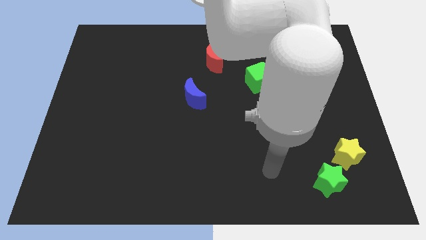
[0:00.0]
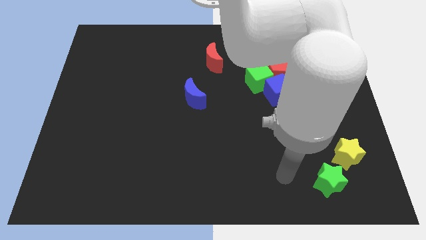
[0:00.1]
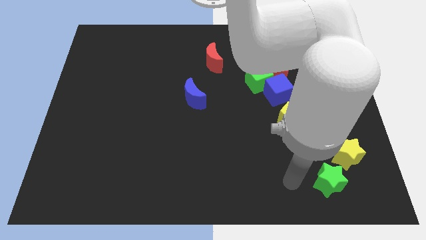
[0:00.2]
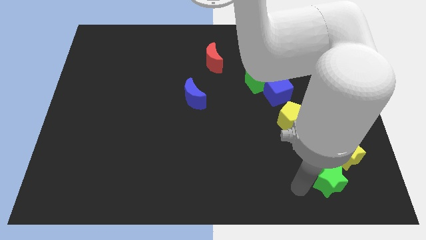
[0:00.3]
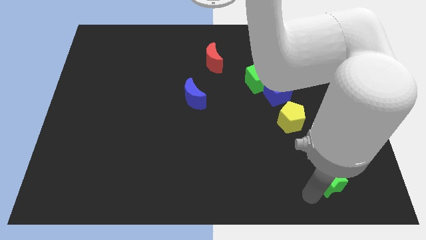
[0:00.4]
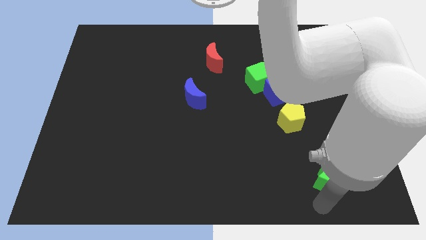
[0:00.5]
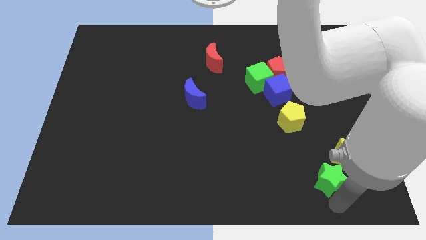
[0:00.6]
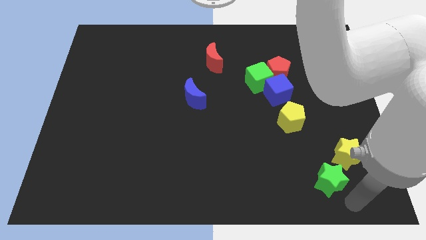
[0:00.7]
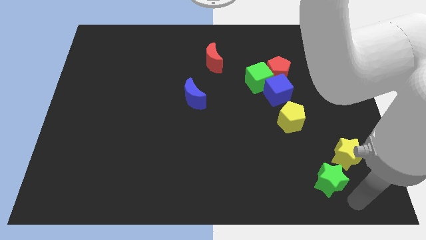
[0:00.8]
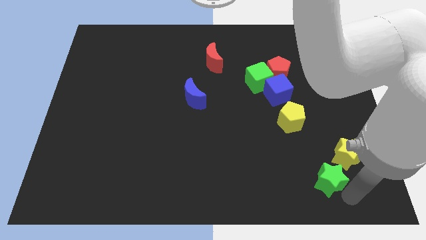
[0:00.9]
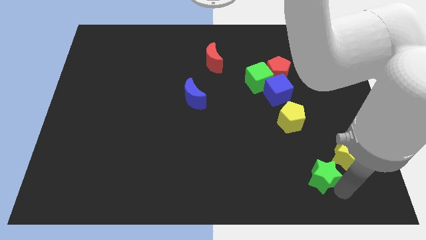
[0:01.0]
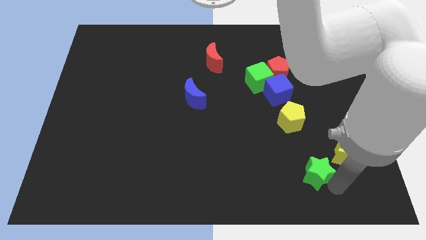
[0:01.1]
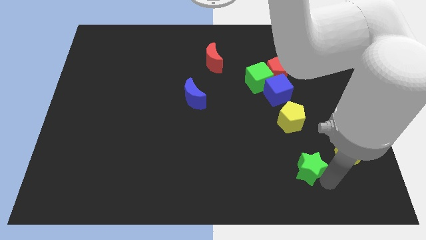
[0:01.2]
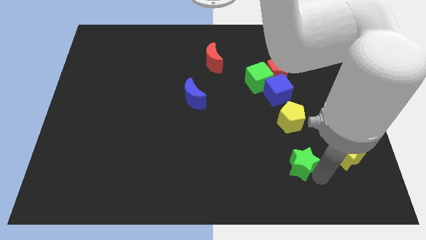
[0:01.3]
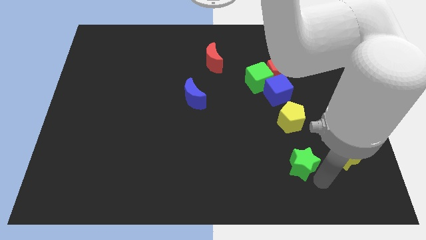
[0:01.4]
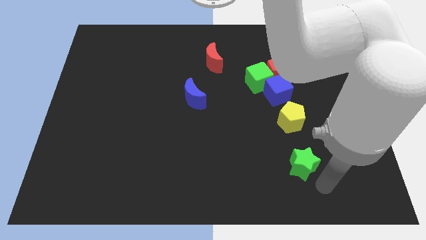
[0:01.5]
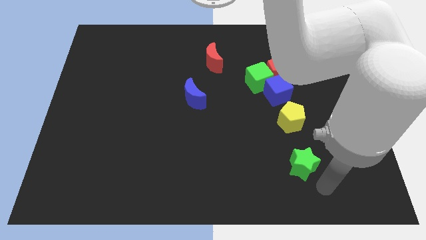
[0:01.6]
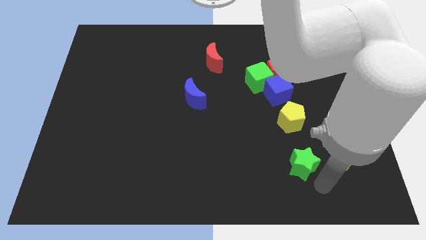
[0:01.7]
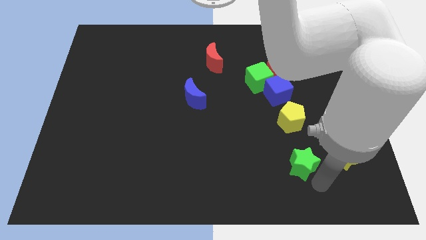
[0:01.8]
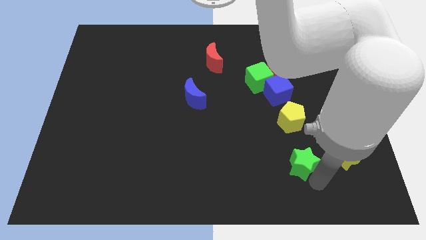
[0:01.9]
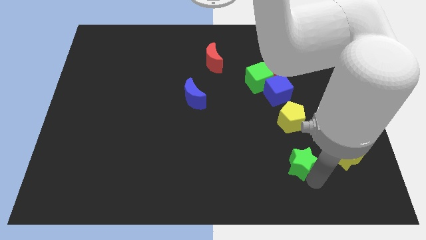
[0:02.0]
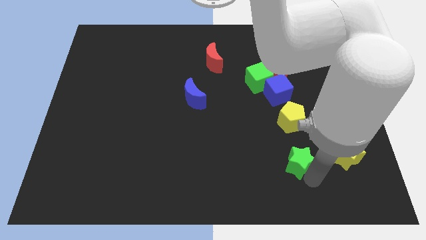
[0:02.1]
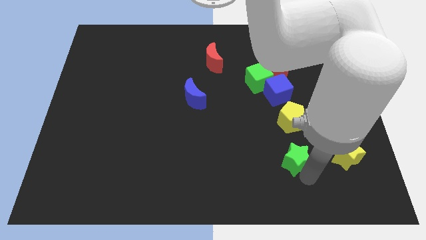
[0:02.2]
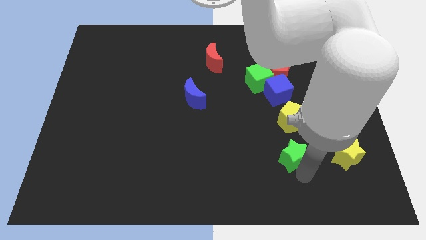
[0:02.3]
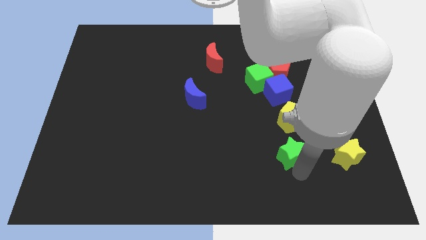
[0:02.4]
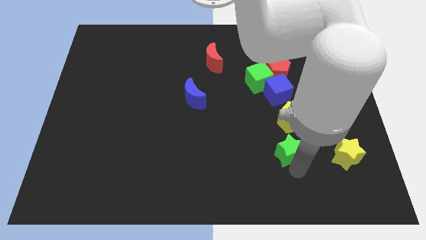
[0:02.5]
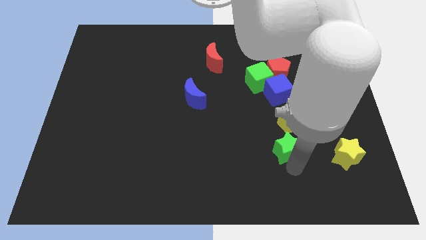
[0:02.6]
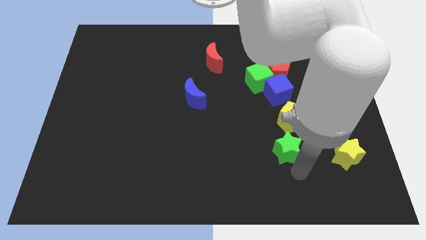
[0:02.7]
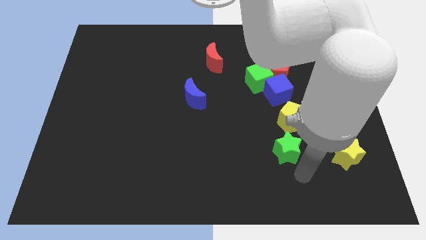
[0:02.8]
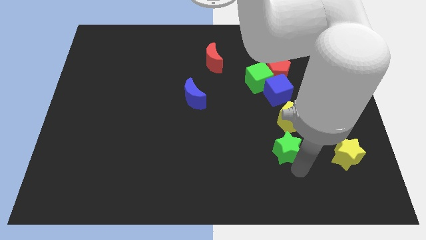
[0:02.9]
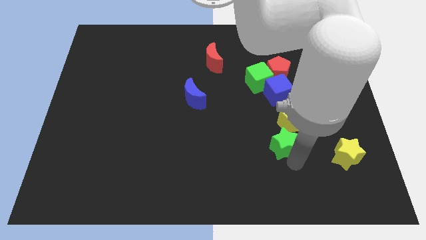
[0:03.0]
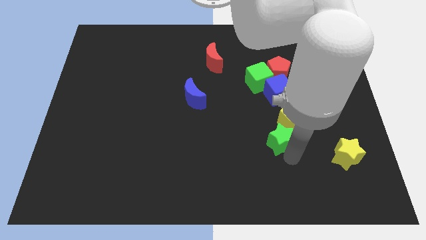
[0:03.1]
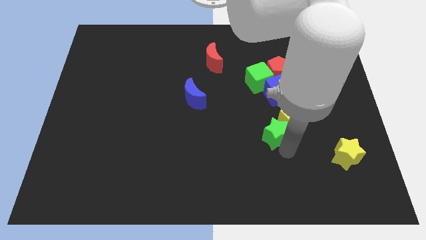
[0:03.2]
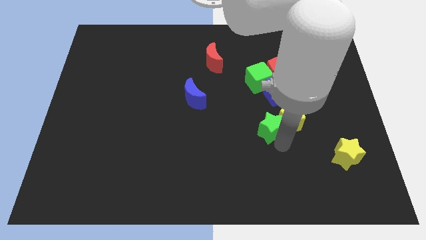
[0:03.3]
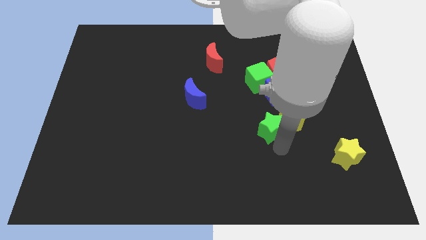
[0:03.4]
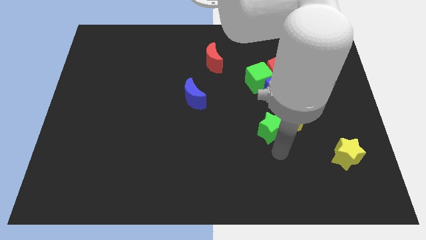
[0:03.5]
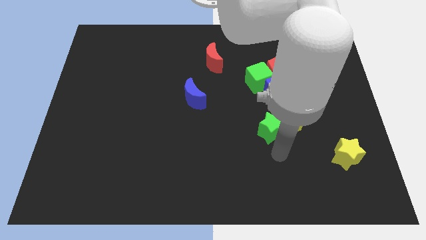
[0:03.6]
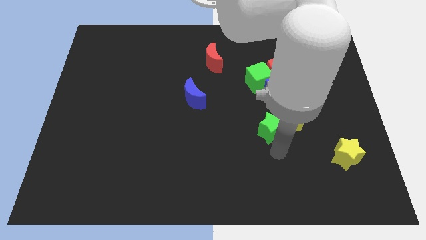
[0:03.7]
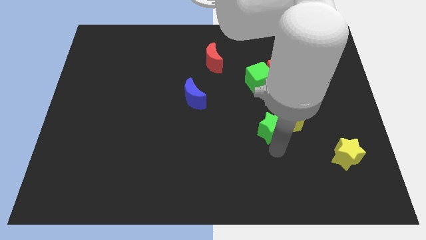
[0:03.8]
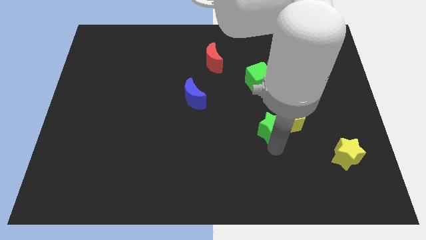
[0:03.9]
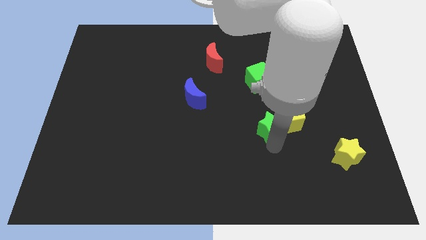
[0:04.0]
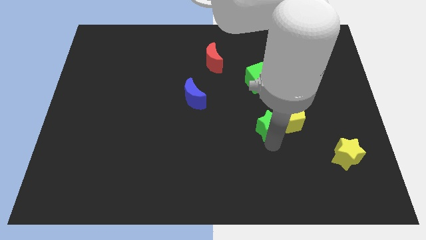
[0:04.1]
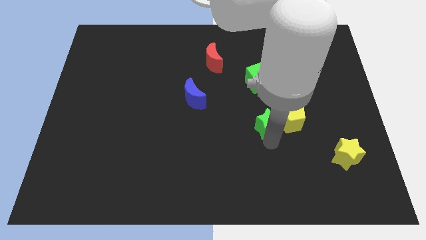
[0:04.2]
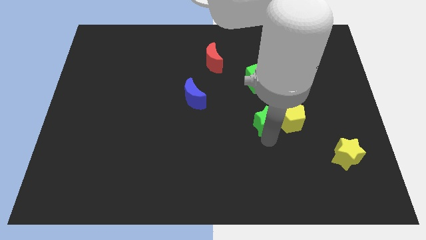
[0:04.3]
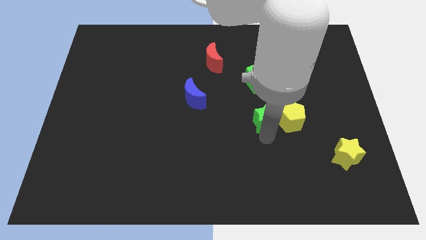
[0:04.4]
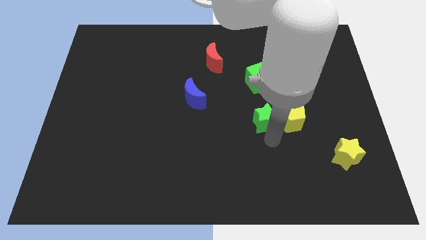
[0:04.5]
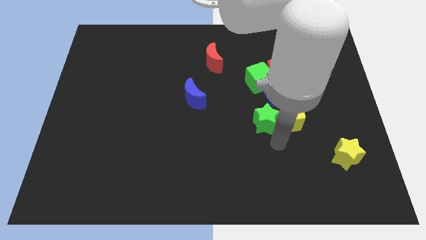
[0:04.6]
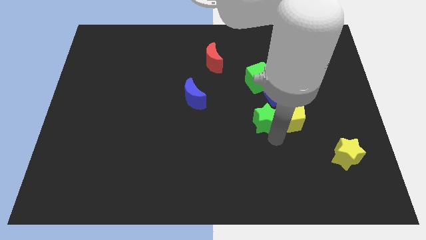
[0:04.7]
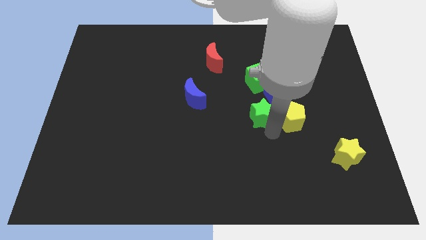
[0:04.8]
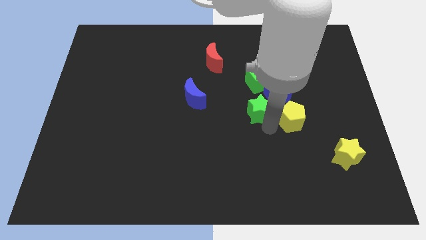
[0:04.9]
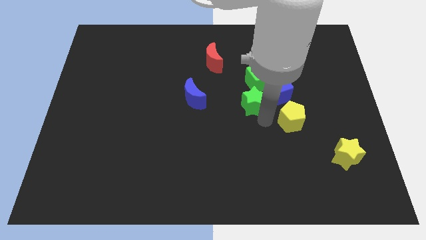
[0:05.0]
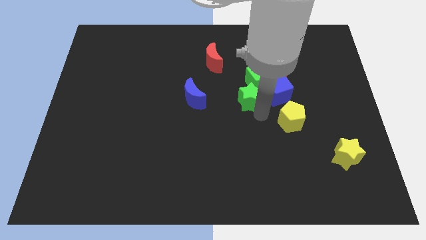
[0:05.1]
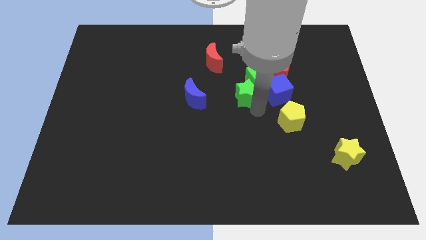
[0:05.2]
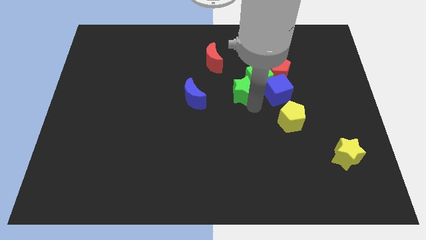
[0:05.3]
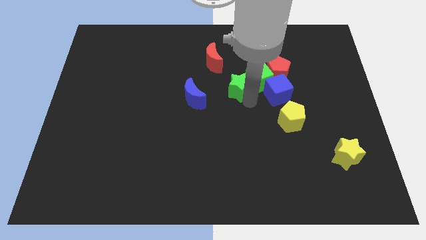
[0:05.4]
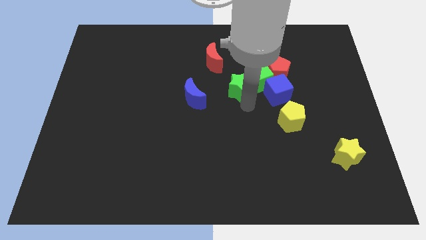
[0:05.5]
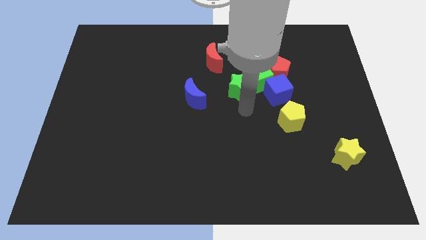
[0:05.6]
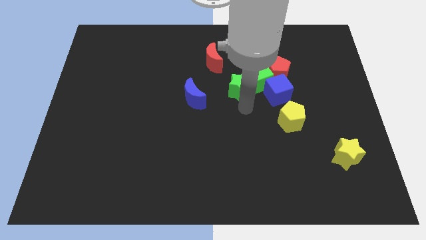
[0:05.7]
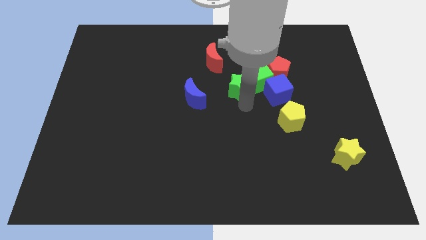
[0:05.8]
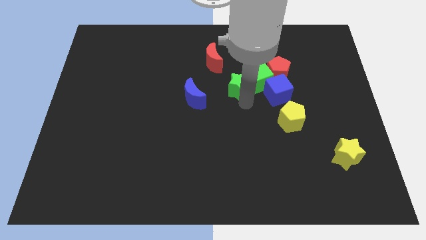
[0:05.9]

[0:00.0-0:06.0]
put the green star just left of the red pentagon

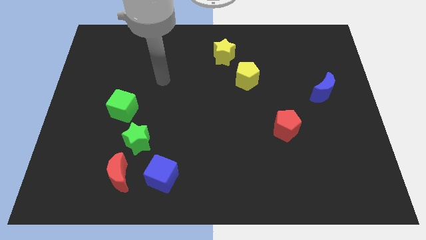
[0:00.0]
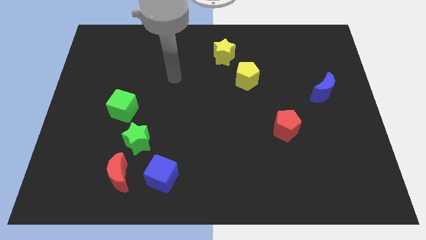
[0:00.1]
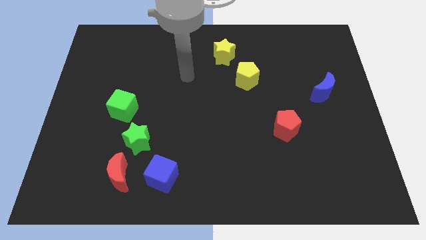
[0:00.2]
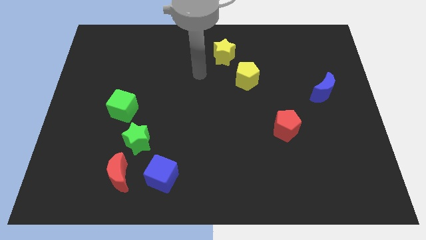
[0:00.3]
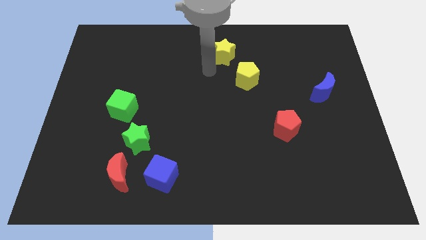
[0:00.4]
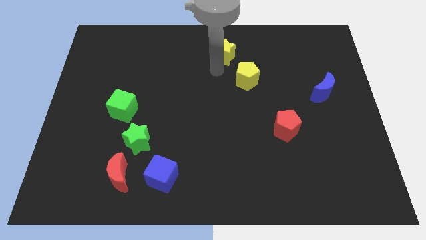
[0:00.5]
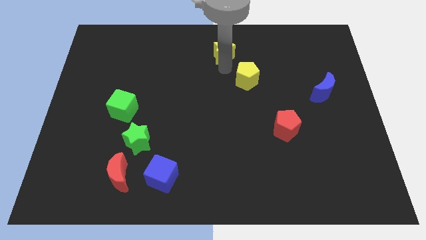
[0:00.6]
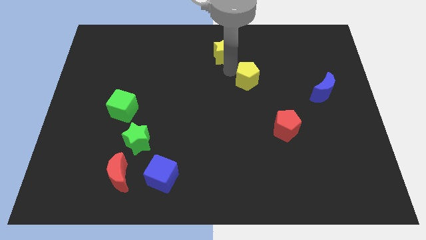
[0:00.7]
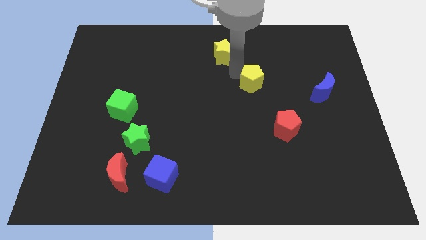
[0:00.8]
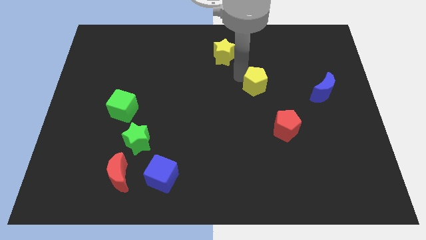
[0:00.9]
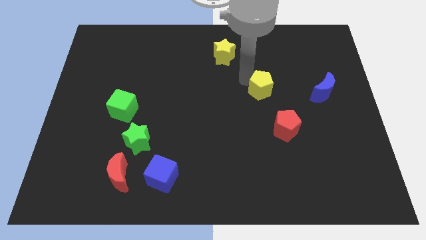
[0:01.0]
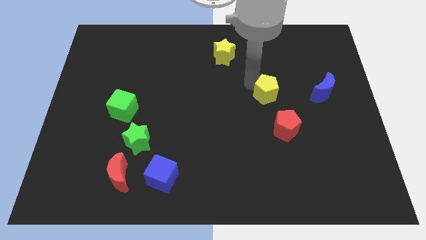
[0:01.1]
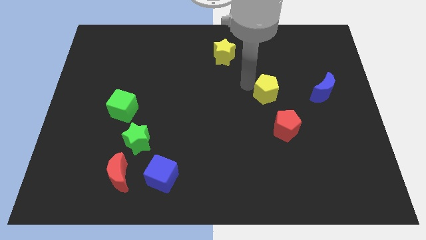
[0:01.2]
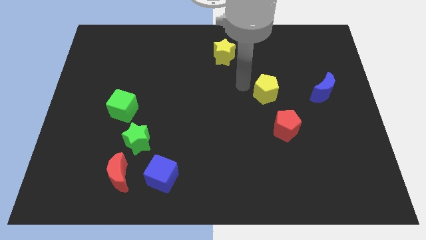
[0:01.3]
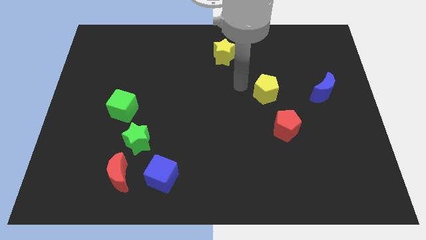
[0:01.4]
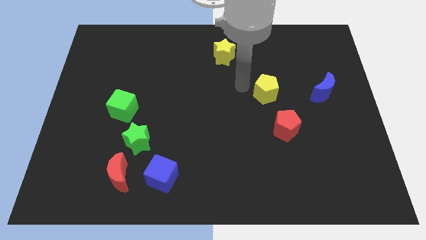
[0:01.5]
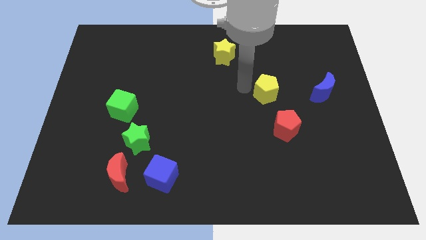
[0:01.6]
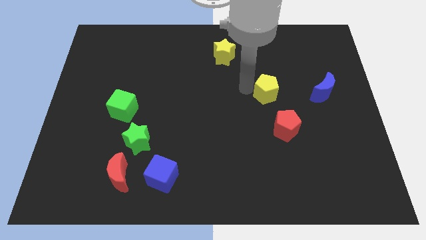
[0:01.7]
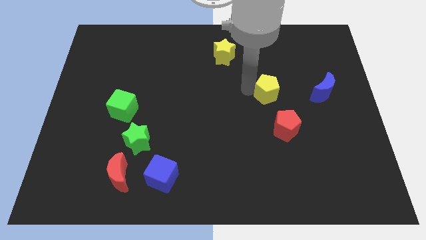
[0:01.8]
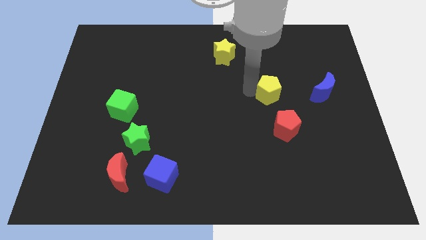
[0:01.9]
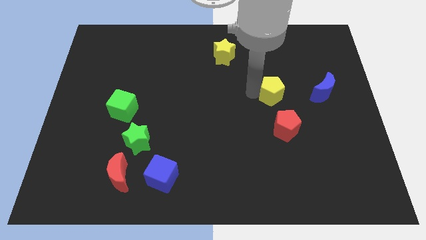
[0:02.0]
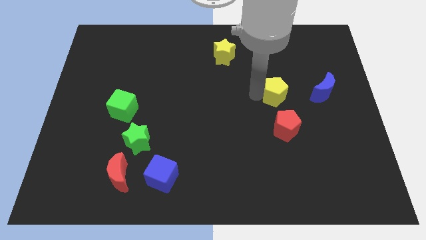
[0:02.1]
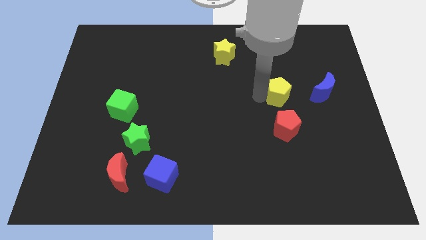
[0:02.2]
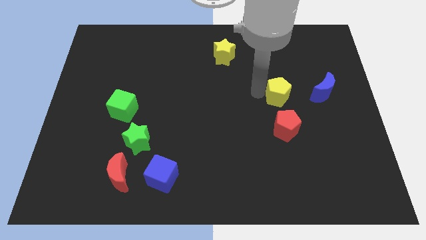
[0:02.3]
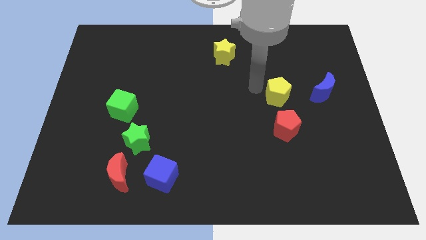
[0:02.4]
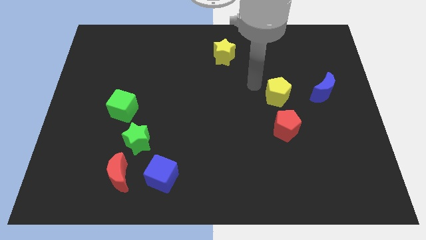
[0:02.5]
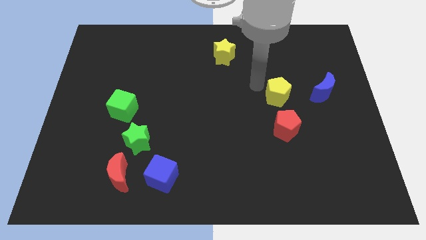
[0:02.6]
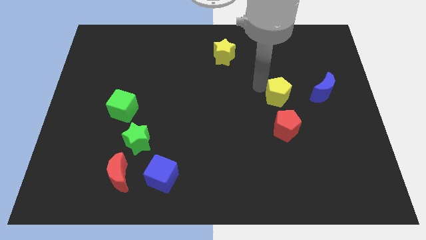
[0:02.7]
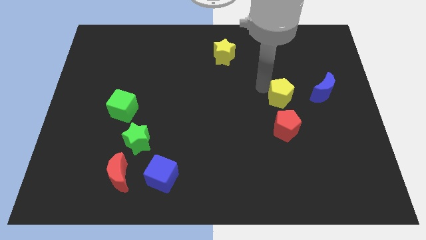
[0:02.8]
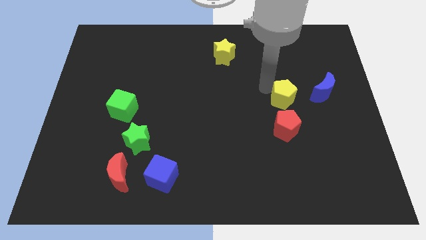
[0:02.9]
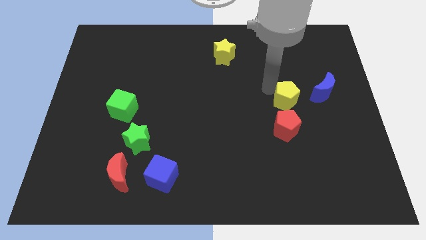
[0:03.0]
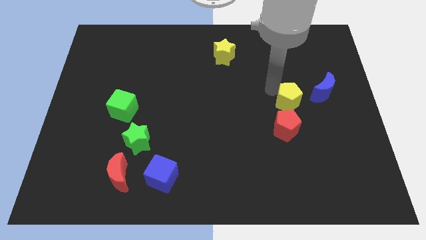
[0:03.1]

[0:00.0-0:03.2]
slide the yellow pentagon diagonally up and to the right of the red pentagon
